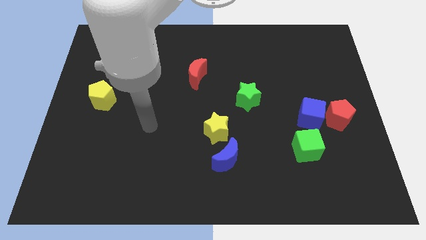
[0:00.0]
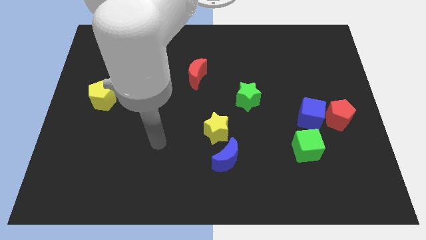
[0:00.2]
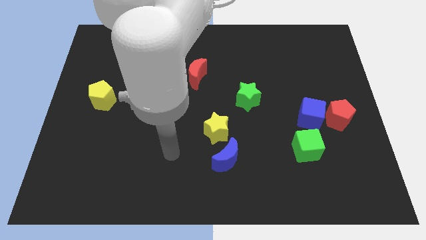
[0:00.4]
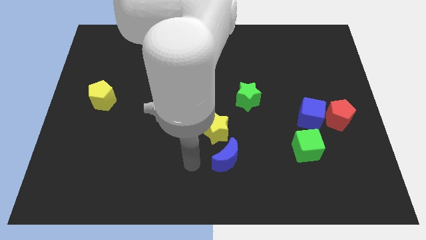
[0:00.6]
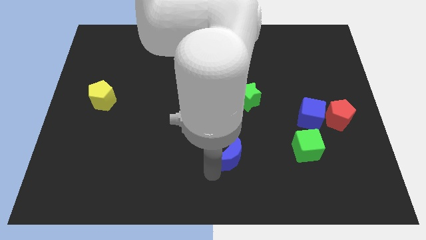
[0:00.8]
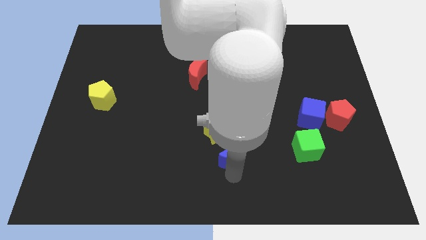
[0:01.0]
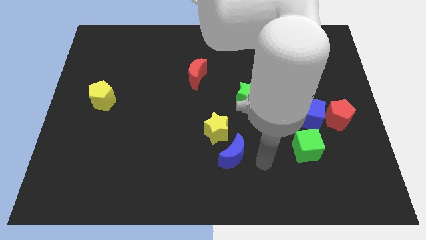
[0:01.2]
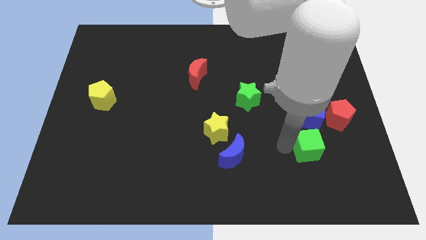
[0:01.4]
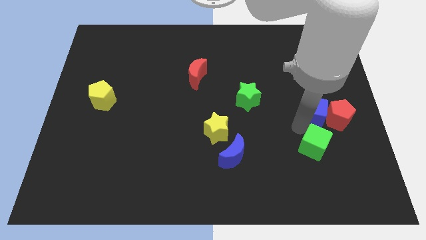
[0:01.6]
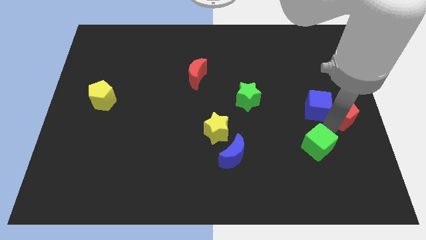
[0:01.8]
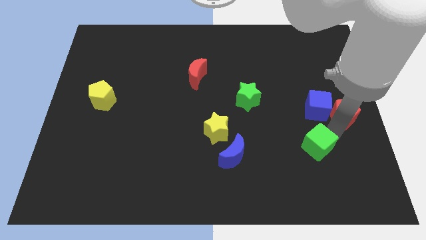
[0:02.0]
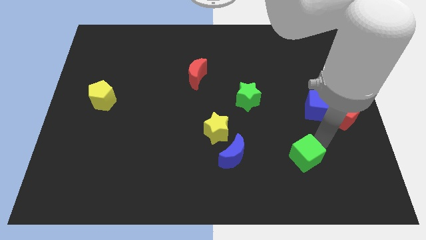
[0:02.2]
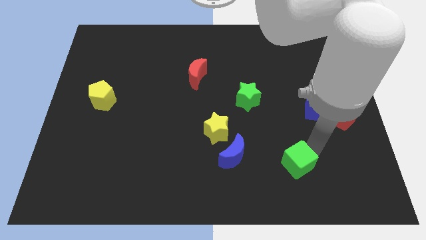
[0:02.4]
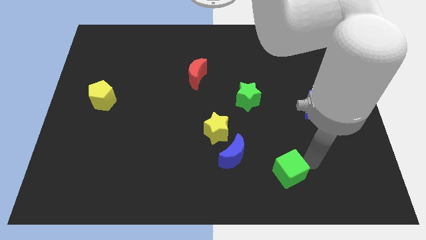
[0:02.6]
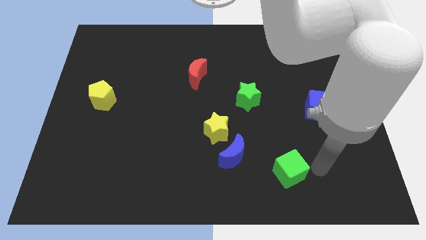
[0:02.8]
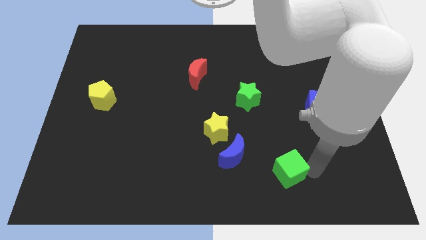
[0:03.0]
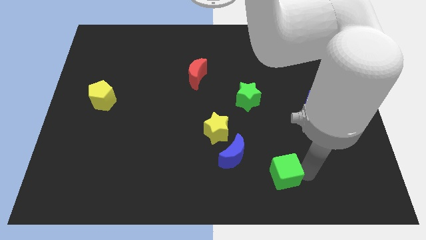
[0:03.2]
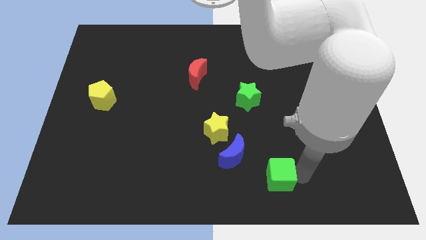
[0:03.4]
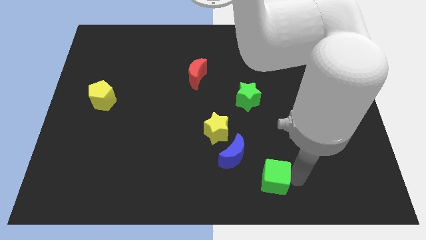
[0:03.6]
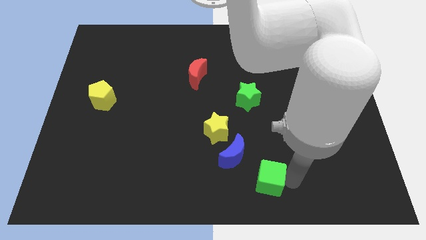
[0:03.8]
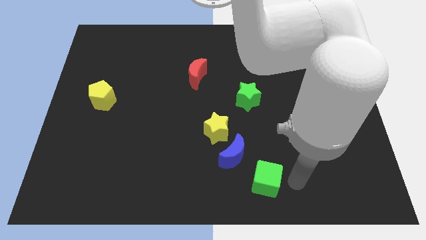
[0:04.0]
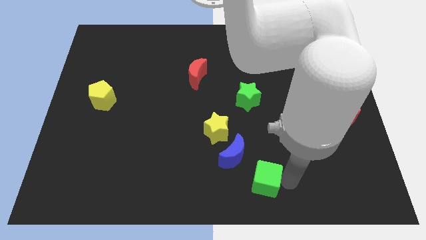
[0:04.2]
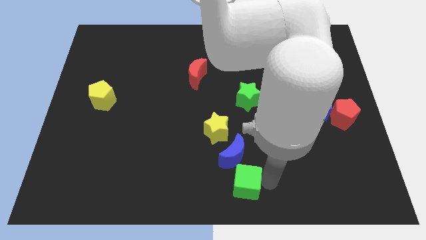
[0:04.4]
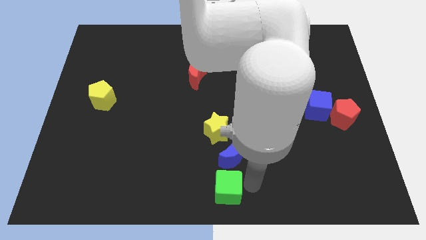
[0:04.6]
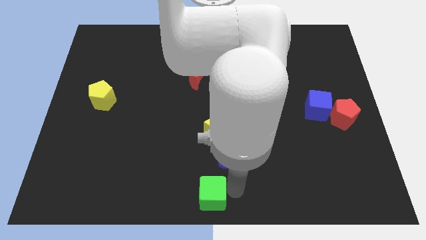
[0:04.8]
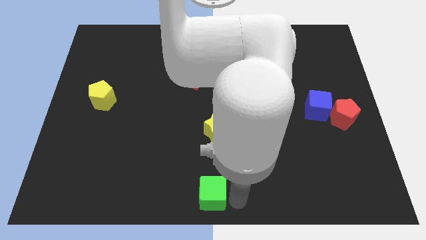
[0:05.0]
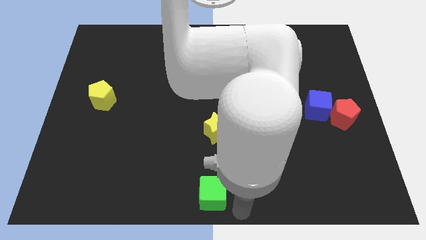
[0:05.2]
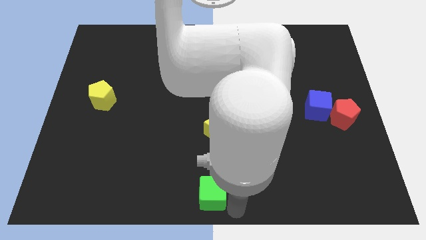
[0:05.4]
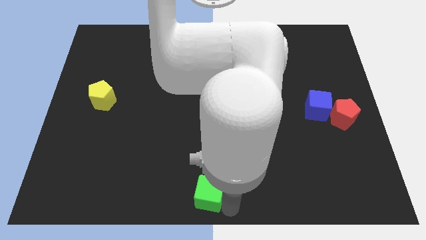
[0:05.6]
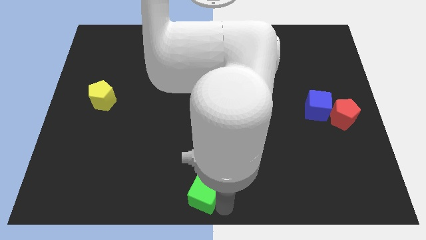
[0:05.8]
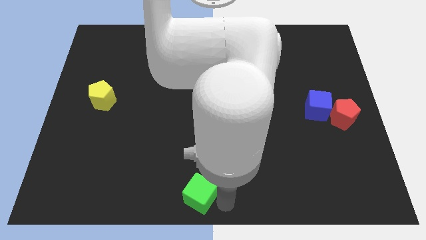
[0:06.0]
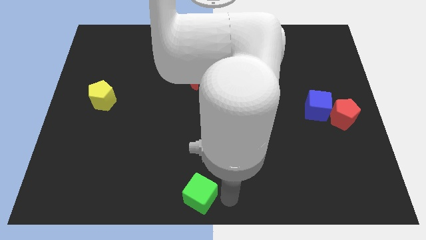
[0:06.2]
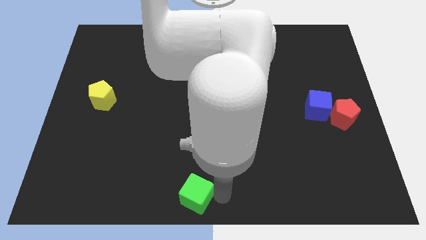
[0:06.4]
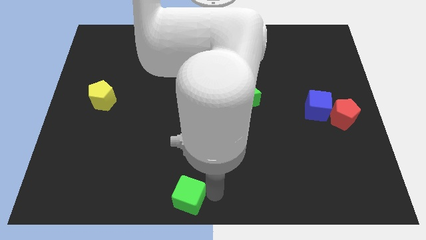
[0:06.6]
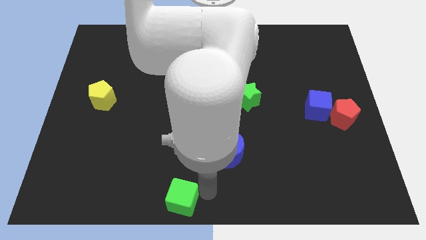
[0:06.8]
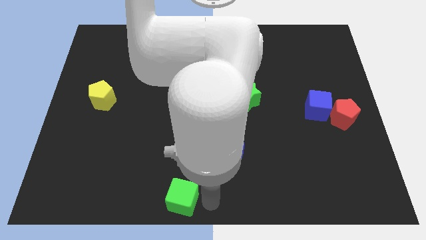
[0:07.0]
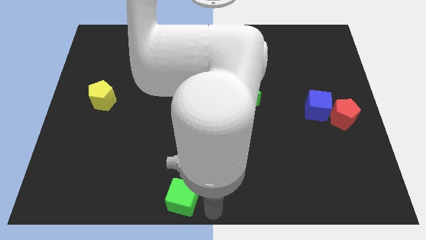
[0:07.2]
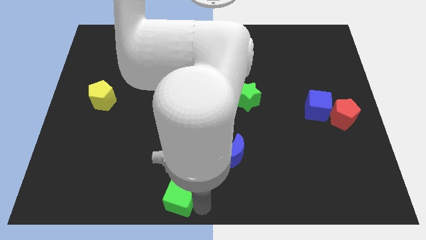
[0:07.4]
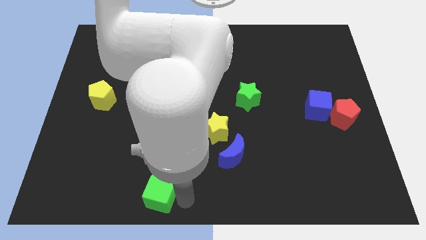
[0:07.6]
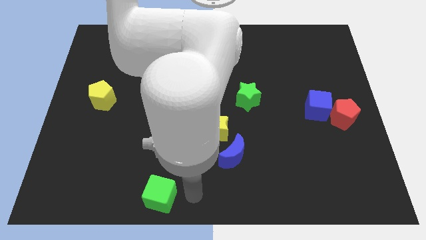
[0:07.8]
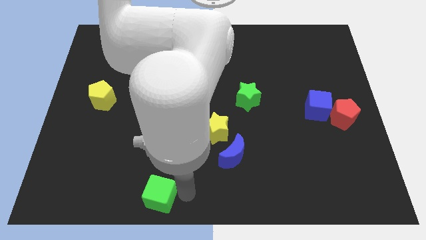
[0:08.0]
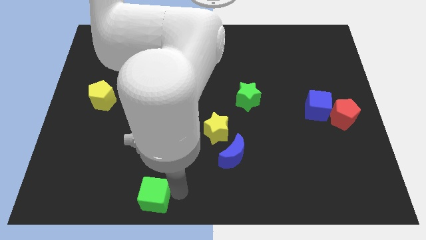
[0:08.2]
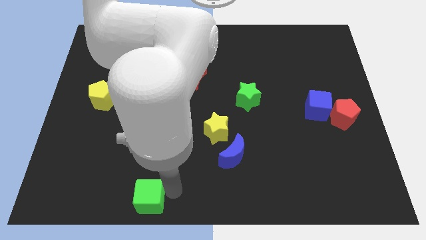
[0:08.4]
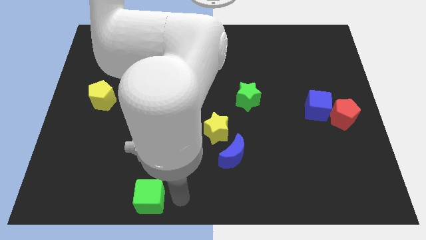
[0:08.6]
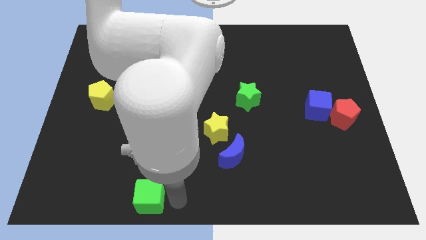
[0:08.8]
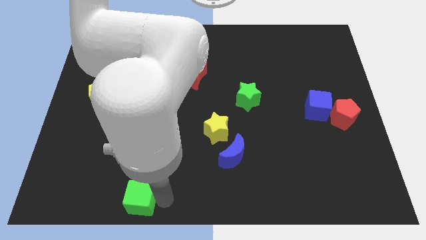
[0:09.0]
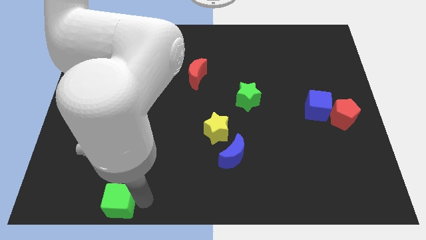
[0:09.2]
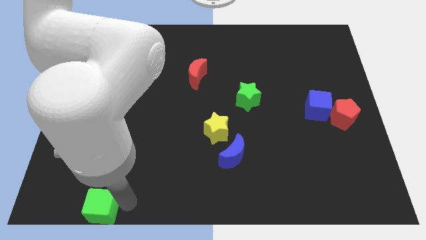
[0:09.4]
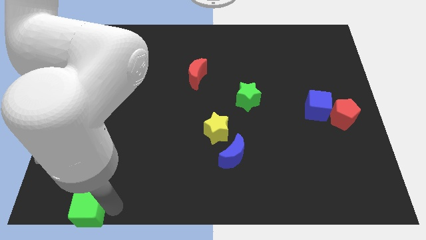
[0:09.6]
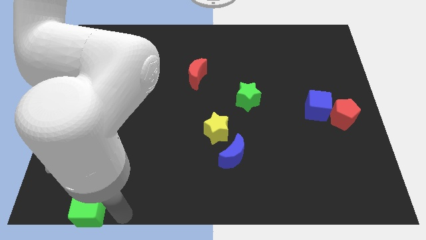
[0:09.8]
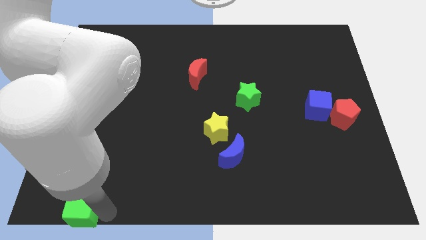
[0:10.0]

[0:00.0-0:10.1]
push the green cube to the bottom left corner
